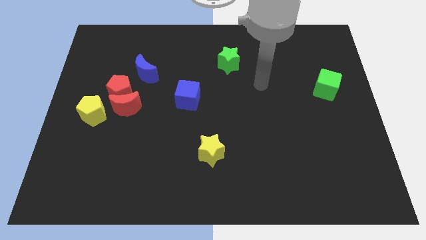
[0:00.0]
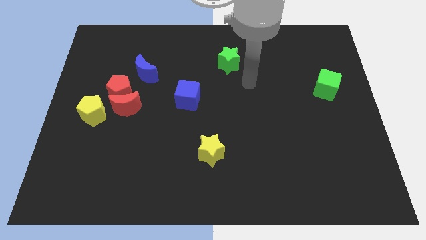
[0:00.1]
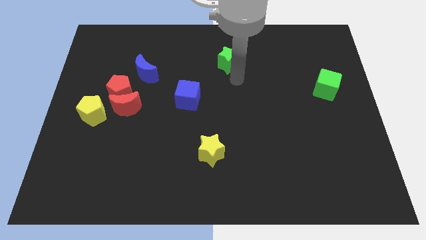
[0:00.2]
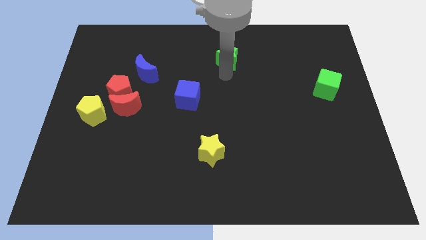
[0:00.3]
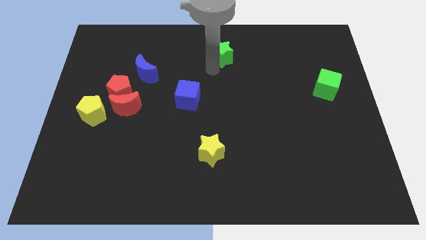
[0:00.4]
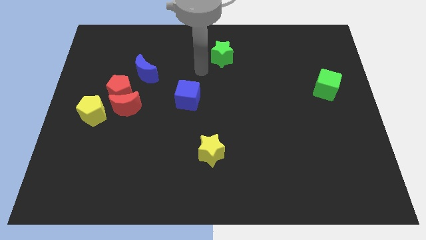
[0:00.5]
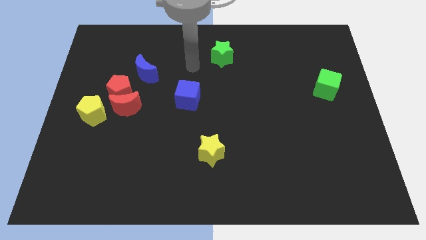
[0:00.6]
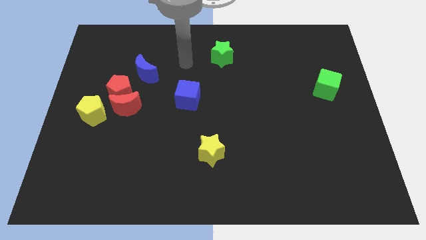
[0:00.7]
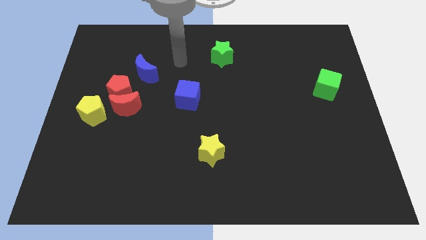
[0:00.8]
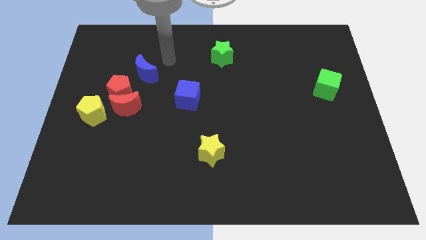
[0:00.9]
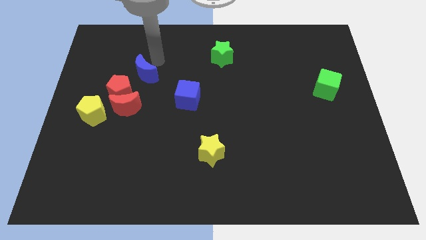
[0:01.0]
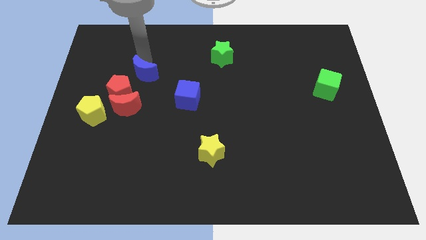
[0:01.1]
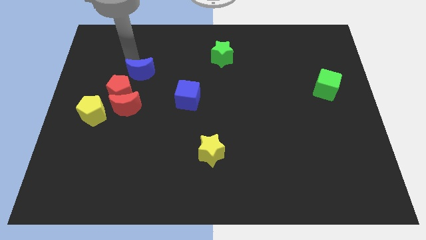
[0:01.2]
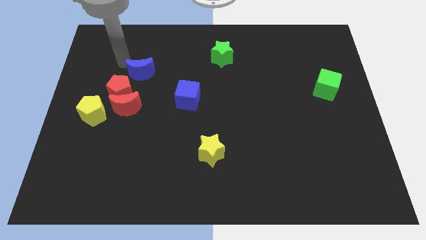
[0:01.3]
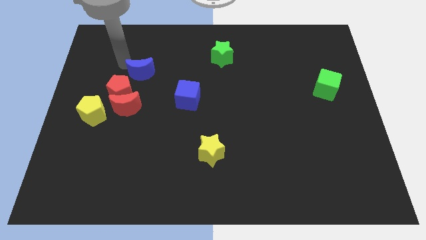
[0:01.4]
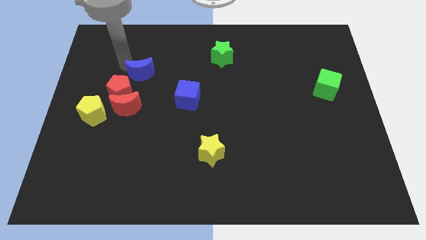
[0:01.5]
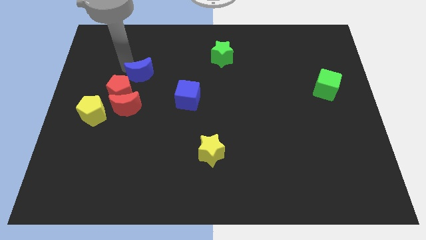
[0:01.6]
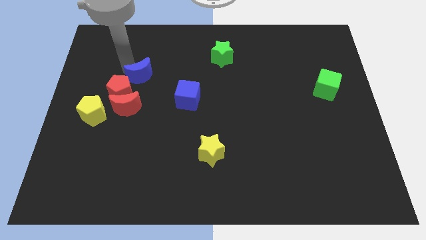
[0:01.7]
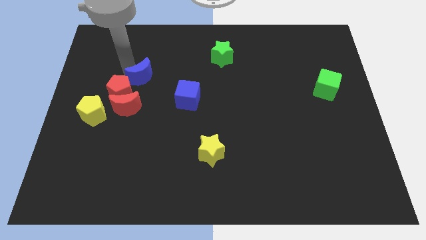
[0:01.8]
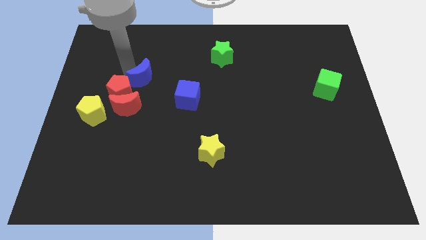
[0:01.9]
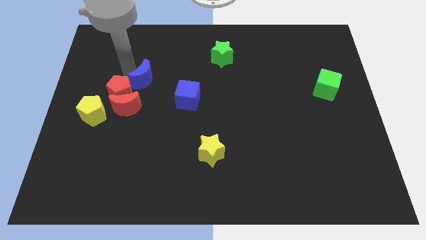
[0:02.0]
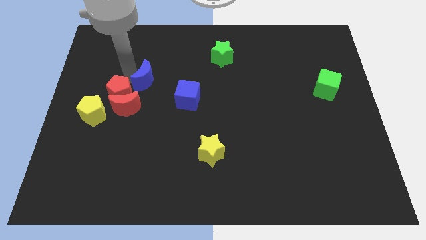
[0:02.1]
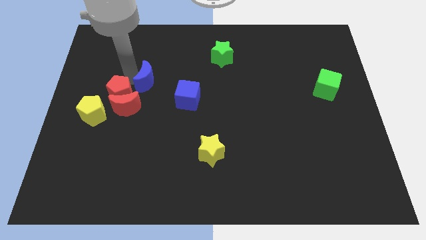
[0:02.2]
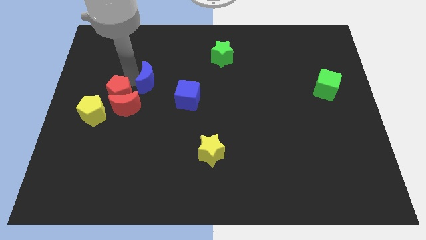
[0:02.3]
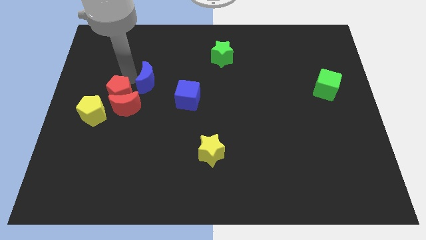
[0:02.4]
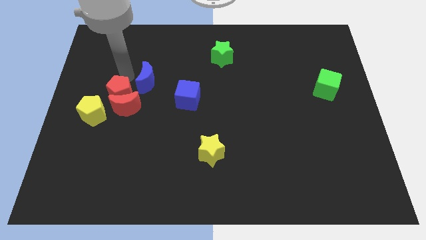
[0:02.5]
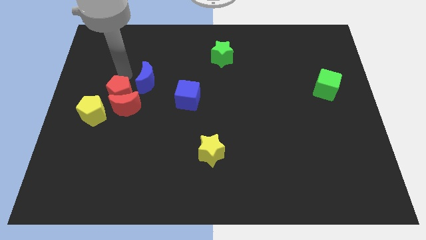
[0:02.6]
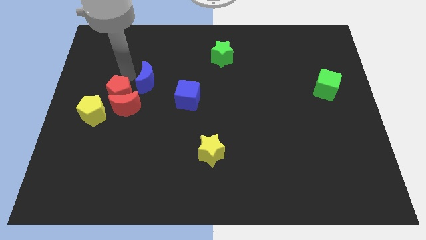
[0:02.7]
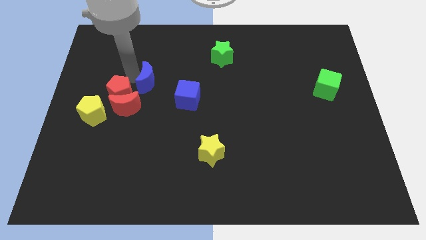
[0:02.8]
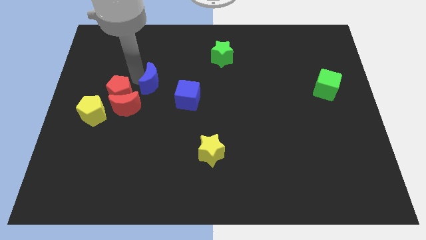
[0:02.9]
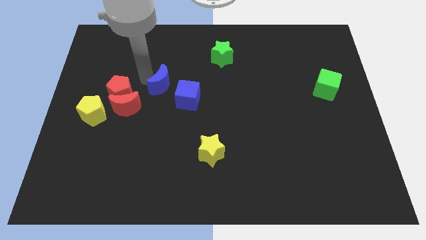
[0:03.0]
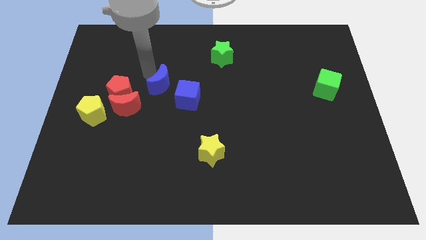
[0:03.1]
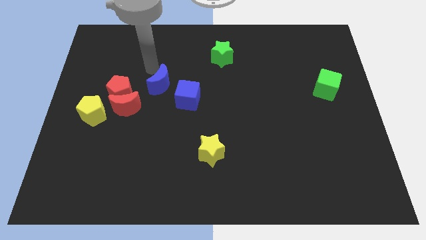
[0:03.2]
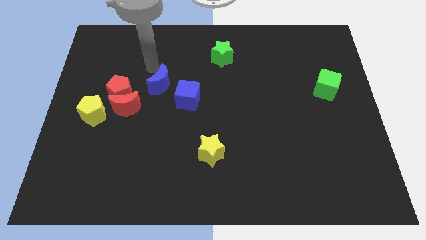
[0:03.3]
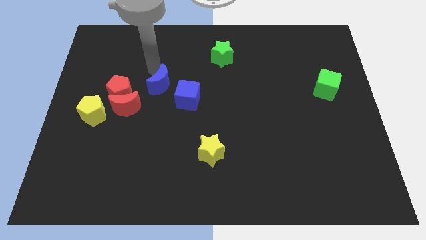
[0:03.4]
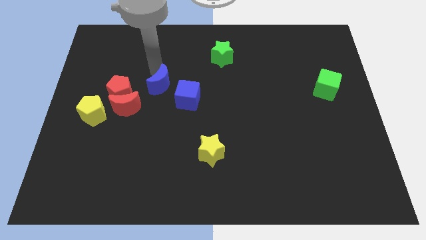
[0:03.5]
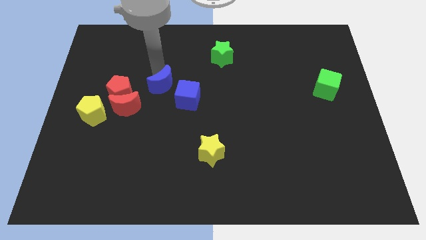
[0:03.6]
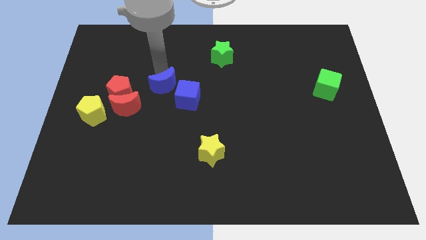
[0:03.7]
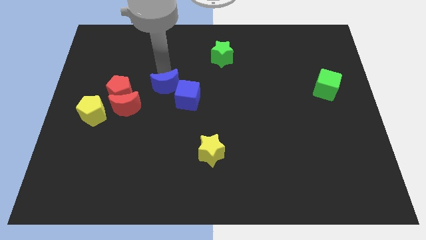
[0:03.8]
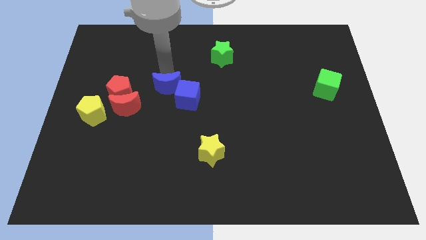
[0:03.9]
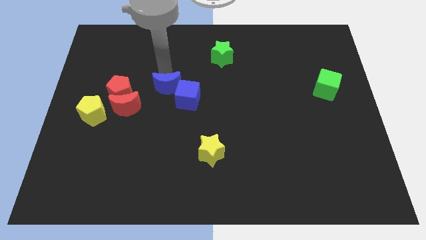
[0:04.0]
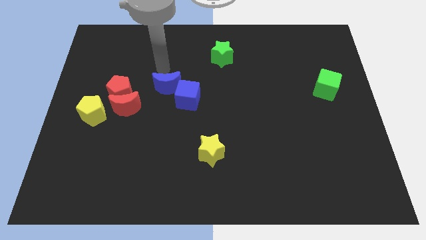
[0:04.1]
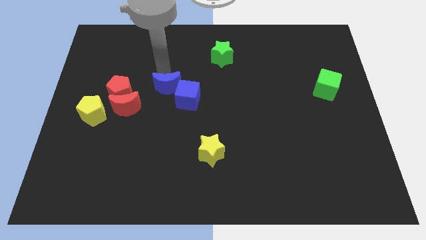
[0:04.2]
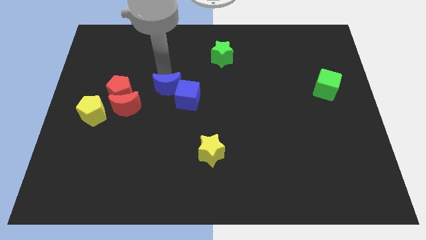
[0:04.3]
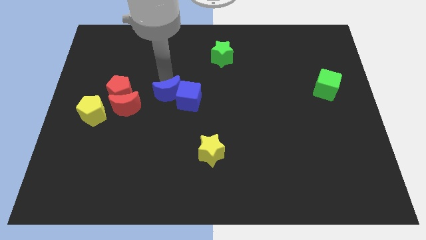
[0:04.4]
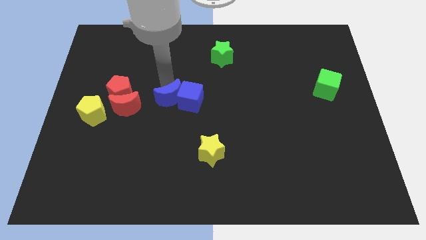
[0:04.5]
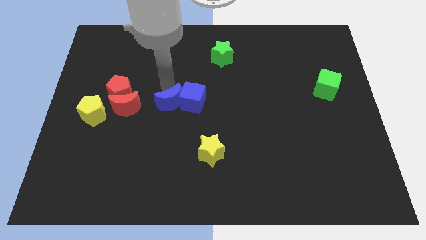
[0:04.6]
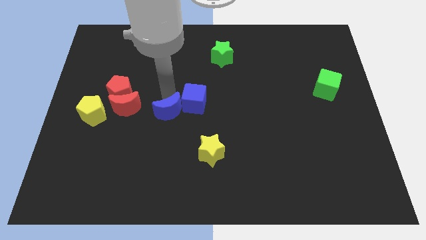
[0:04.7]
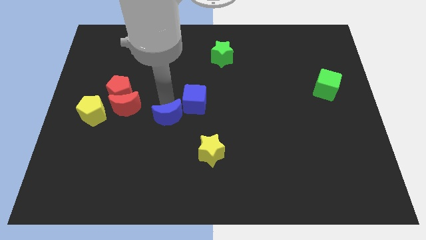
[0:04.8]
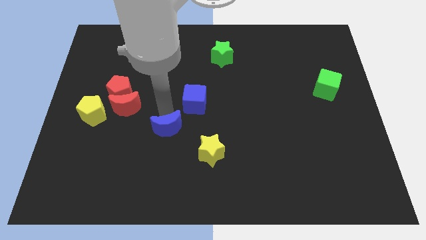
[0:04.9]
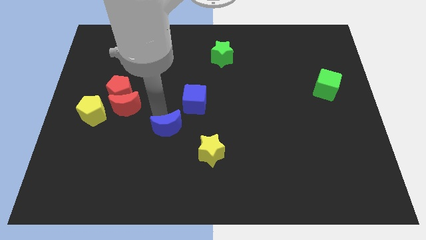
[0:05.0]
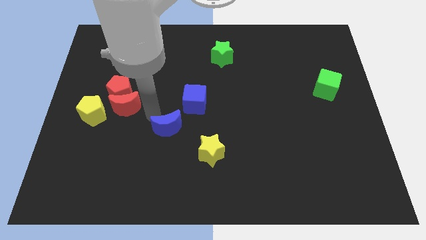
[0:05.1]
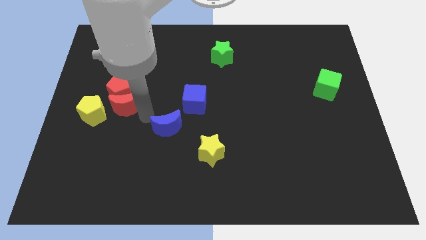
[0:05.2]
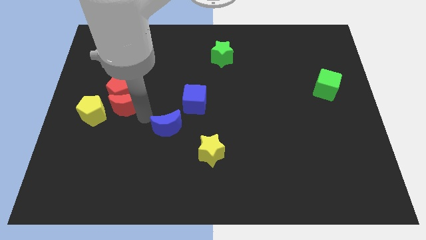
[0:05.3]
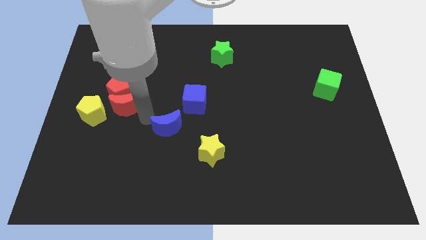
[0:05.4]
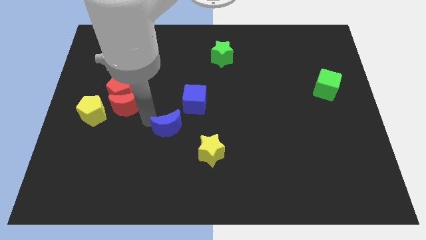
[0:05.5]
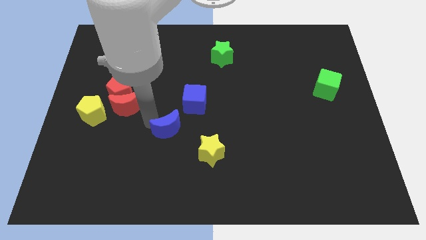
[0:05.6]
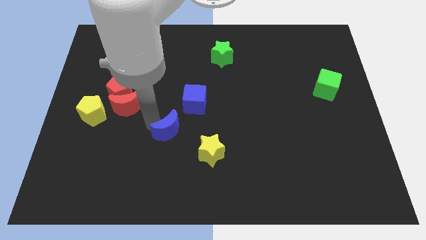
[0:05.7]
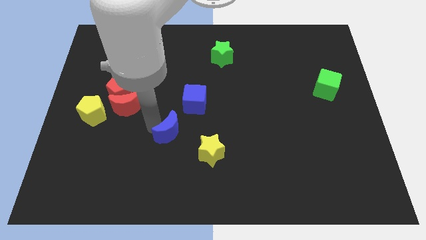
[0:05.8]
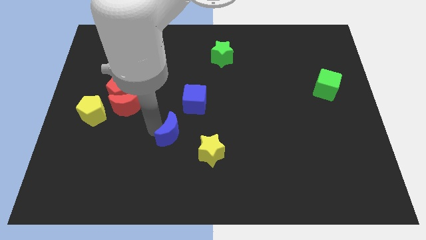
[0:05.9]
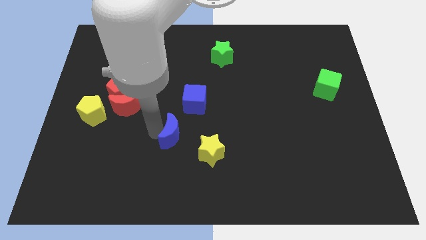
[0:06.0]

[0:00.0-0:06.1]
push the blue moon to the bottom side of the blue cube
